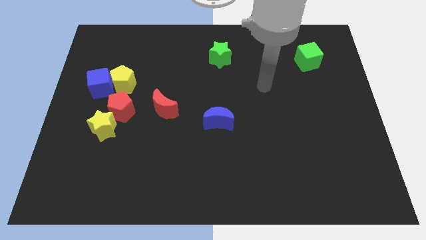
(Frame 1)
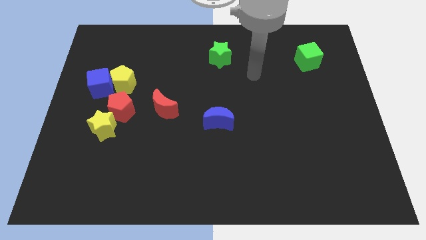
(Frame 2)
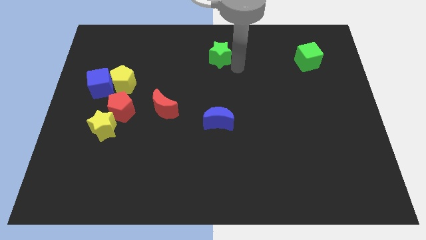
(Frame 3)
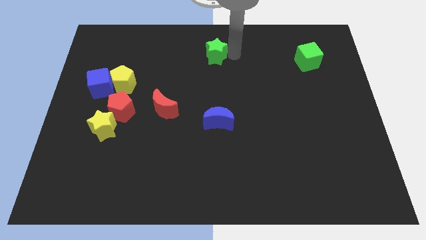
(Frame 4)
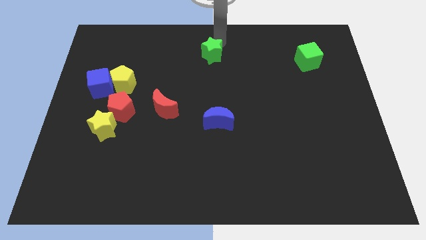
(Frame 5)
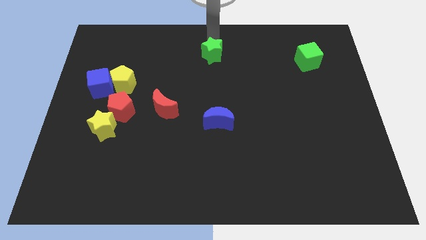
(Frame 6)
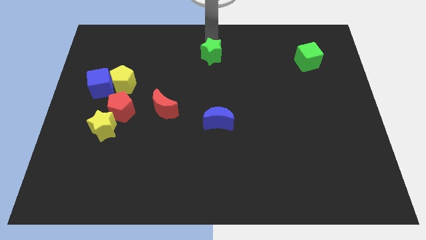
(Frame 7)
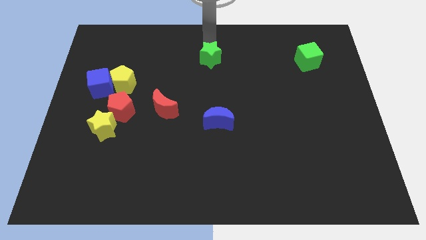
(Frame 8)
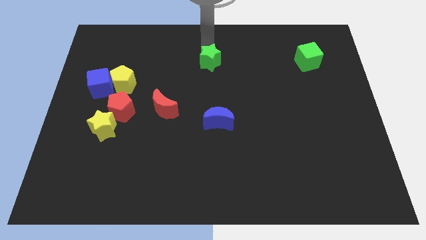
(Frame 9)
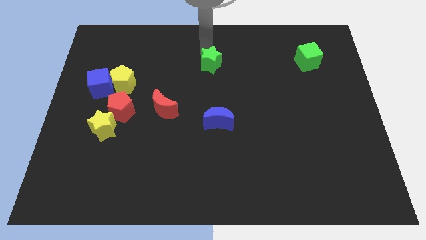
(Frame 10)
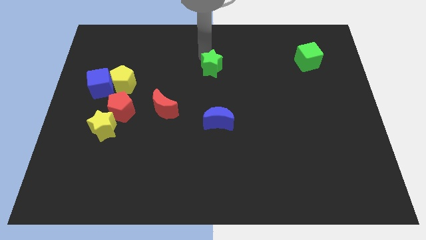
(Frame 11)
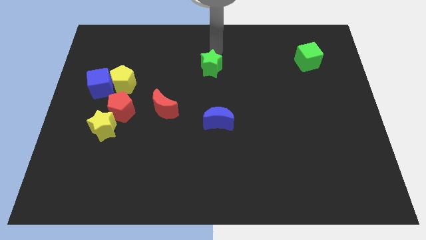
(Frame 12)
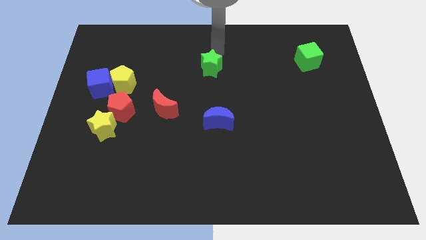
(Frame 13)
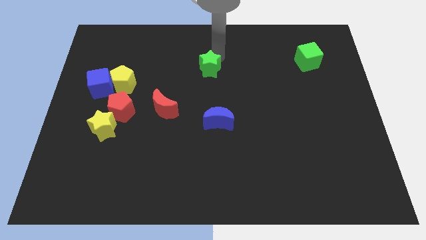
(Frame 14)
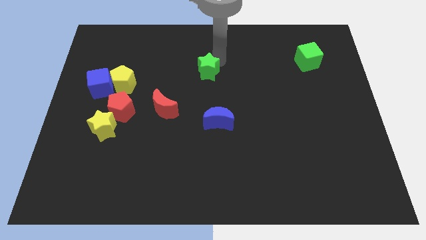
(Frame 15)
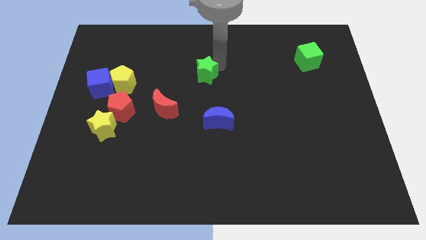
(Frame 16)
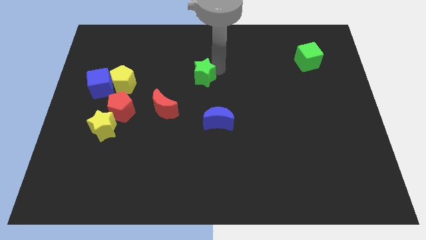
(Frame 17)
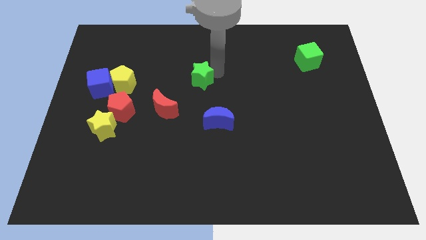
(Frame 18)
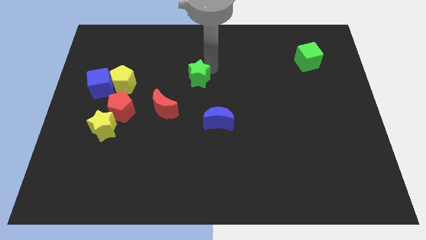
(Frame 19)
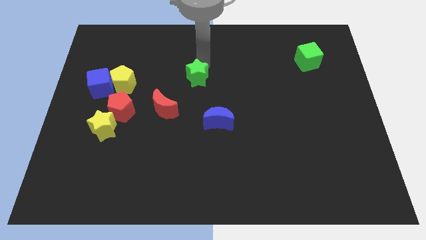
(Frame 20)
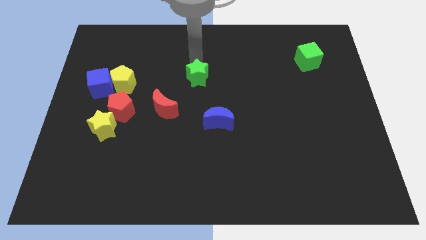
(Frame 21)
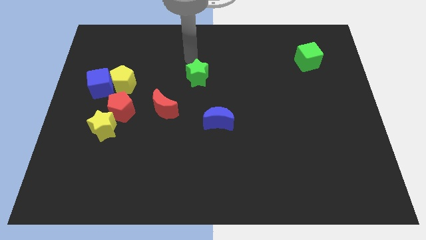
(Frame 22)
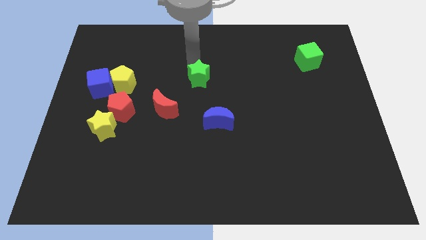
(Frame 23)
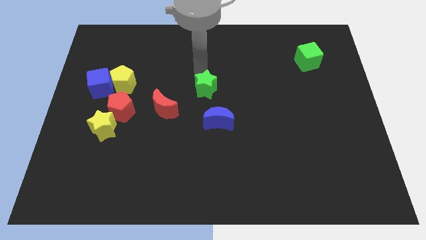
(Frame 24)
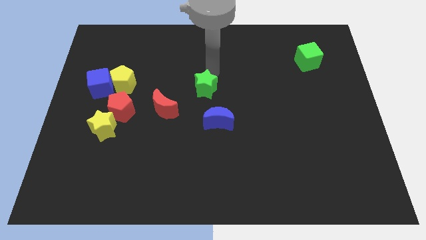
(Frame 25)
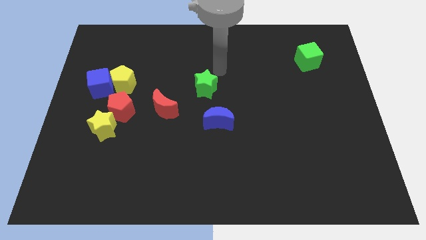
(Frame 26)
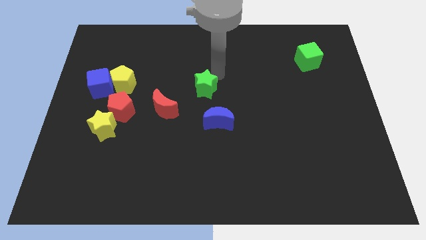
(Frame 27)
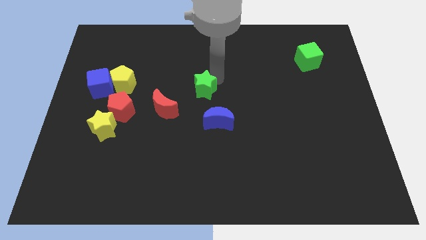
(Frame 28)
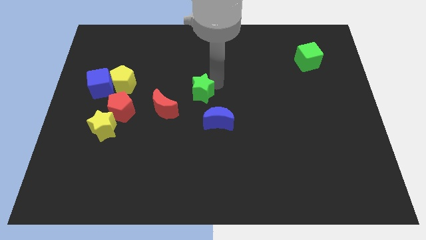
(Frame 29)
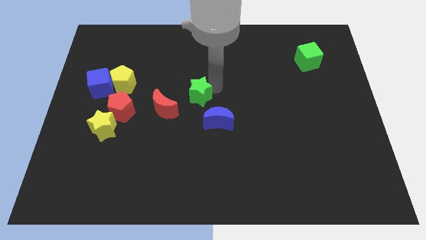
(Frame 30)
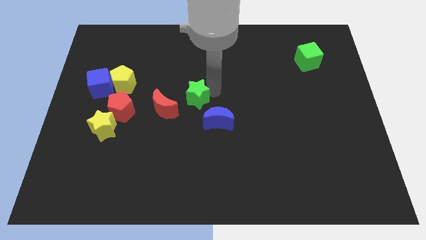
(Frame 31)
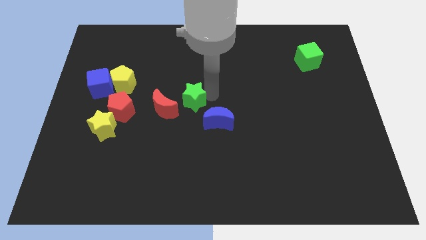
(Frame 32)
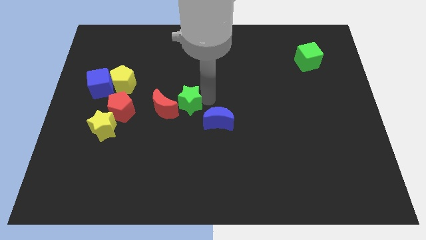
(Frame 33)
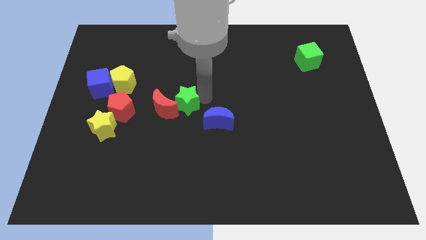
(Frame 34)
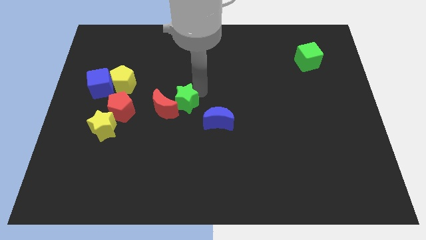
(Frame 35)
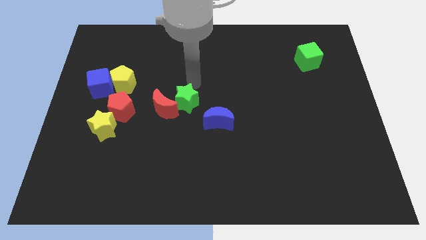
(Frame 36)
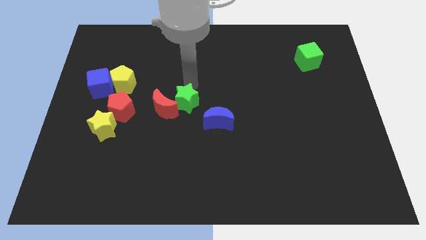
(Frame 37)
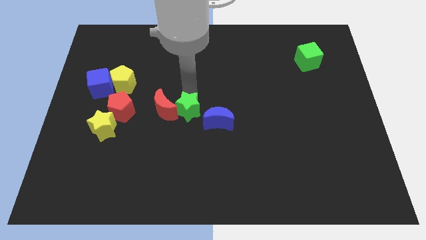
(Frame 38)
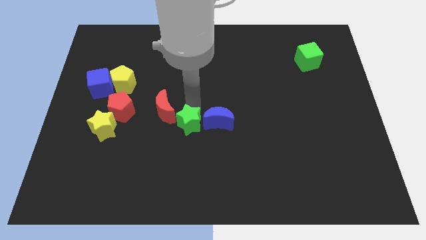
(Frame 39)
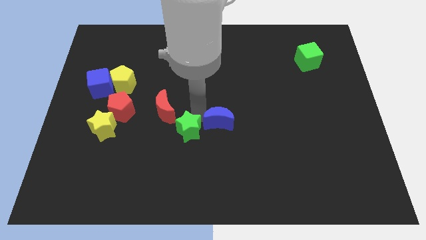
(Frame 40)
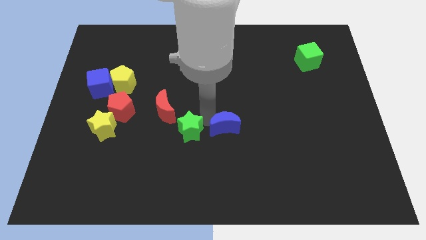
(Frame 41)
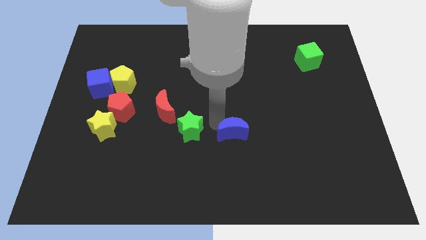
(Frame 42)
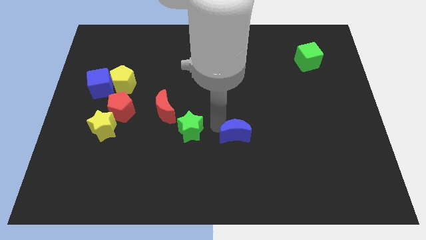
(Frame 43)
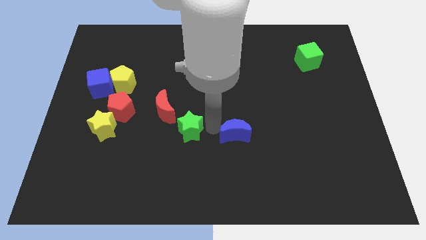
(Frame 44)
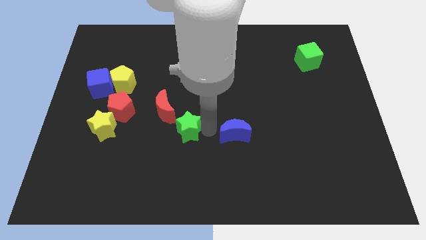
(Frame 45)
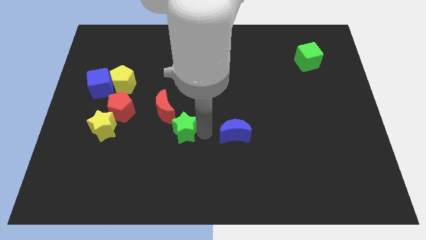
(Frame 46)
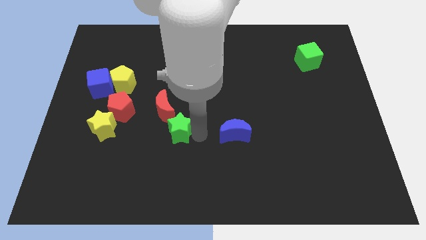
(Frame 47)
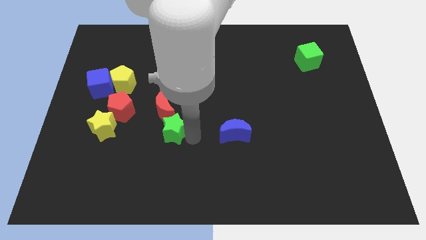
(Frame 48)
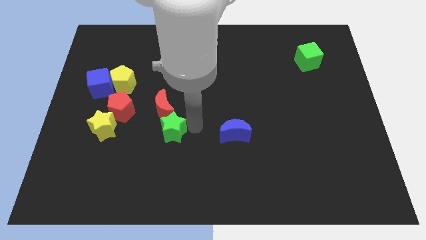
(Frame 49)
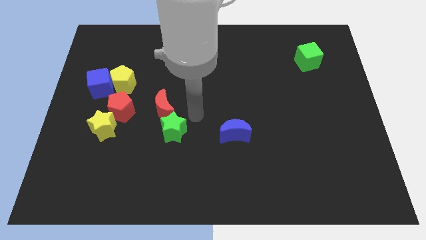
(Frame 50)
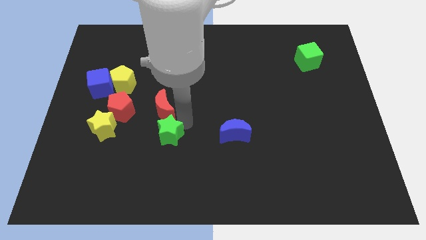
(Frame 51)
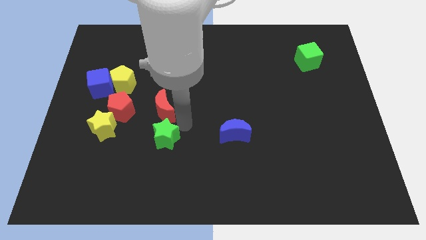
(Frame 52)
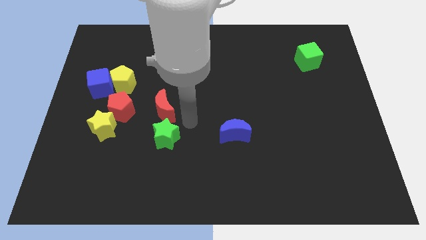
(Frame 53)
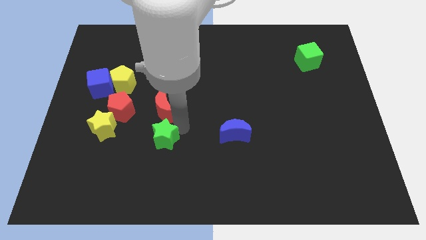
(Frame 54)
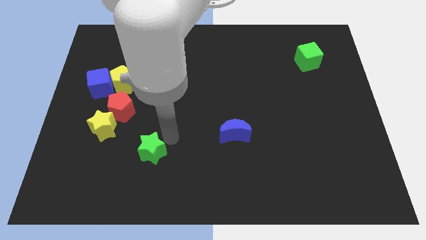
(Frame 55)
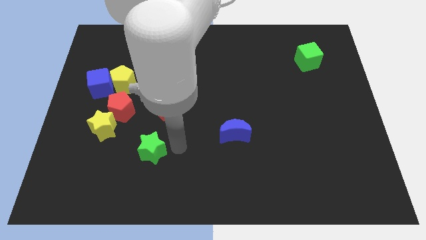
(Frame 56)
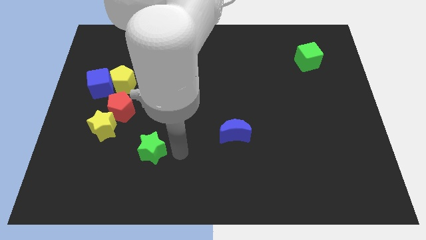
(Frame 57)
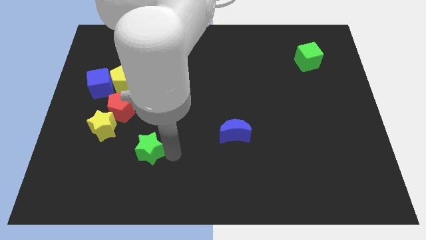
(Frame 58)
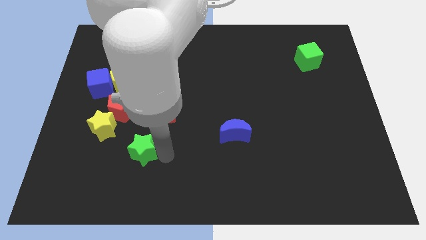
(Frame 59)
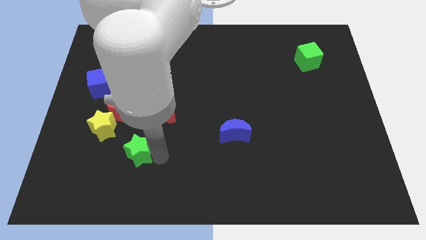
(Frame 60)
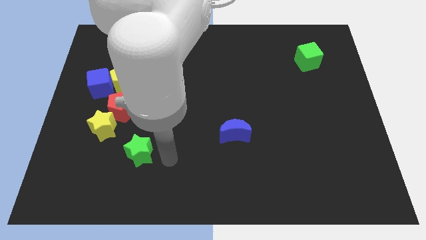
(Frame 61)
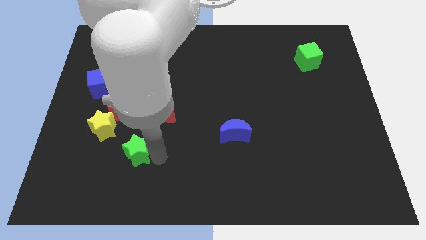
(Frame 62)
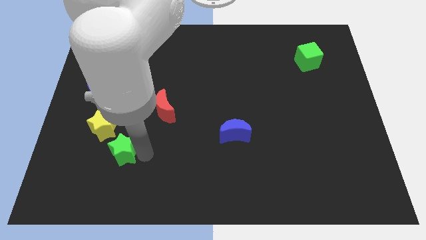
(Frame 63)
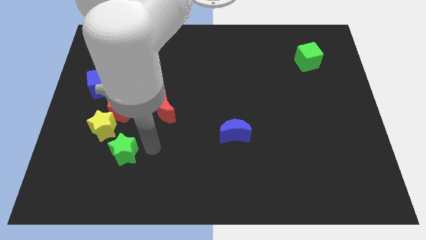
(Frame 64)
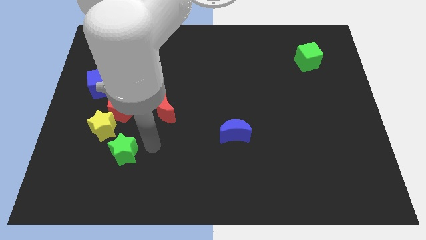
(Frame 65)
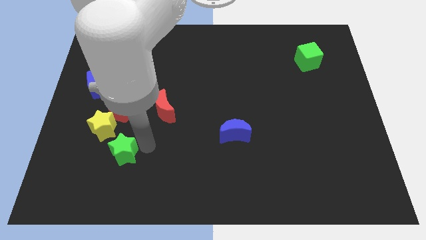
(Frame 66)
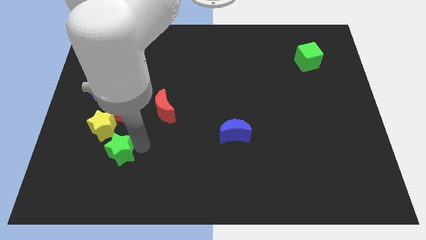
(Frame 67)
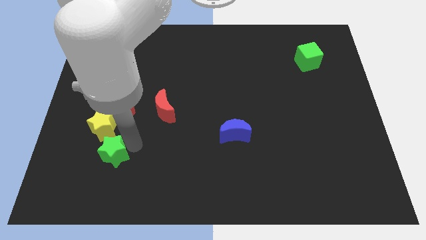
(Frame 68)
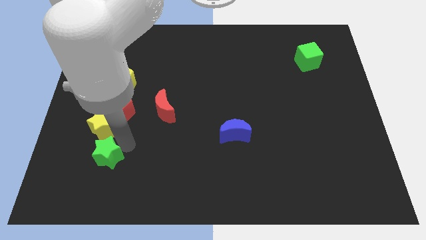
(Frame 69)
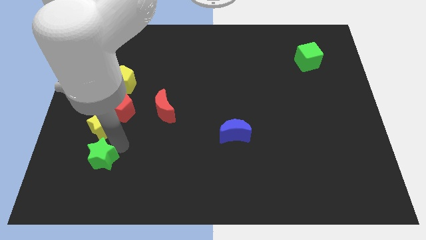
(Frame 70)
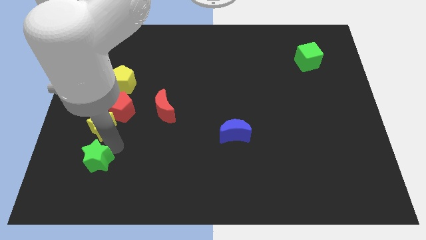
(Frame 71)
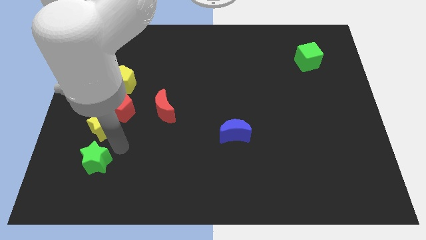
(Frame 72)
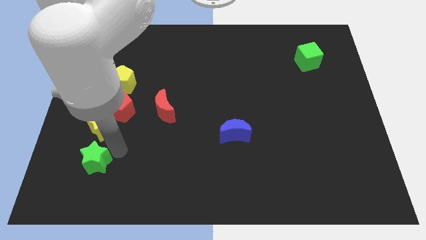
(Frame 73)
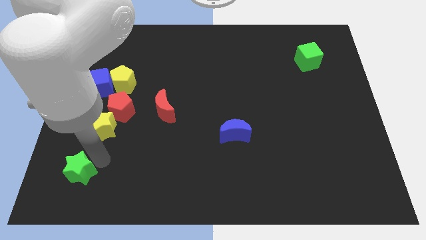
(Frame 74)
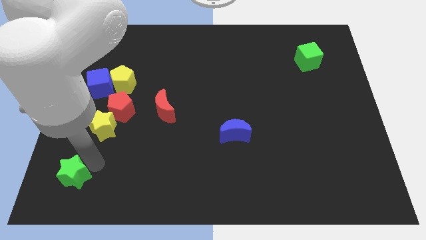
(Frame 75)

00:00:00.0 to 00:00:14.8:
move the green star to the bottom left corner
